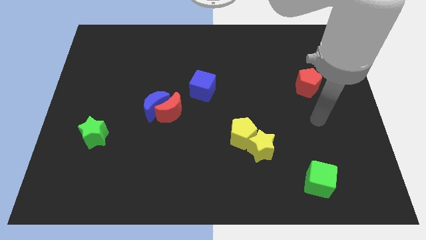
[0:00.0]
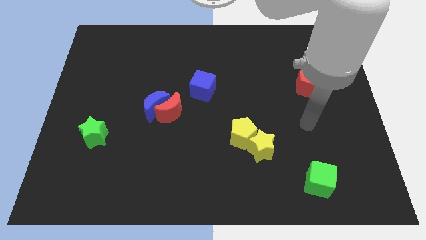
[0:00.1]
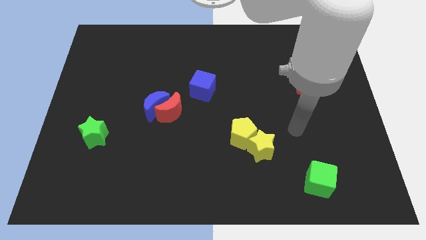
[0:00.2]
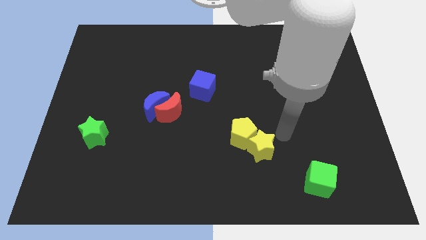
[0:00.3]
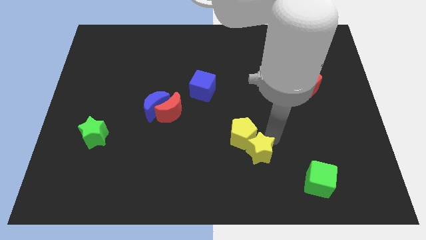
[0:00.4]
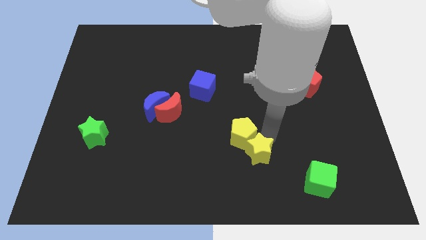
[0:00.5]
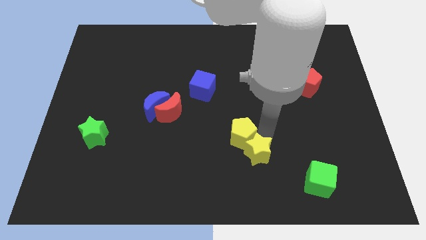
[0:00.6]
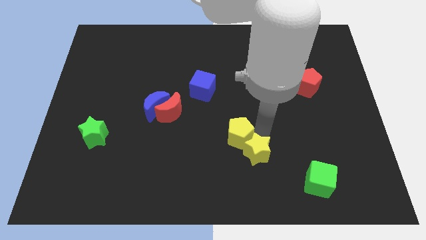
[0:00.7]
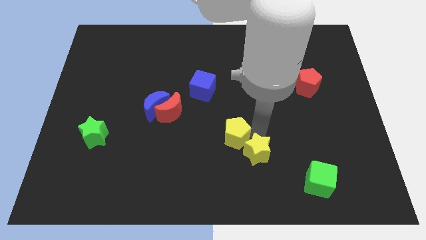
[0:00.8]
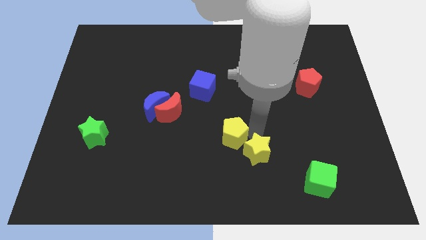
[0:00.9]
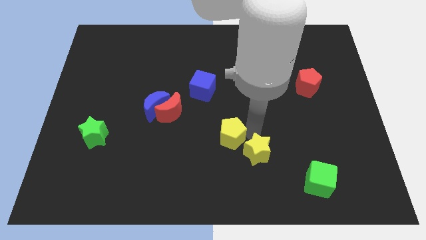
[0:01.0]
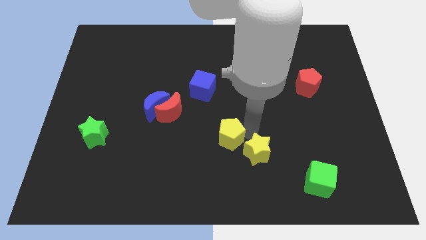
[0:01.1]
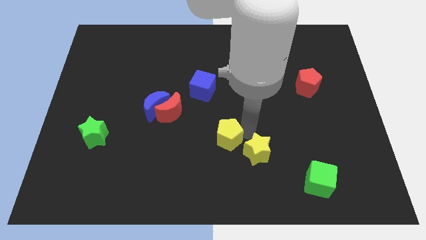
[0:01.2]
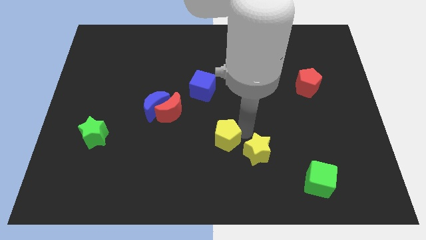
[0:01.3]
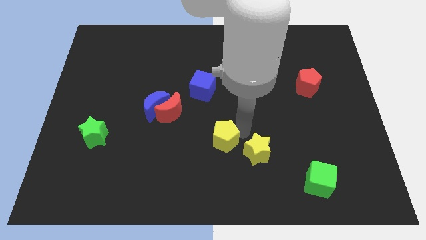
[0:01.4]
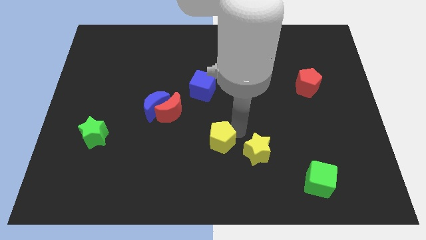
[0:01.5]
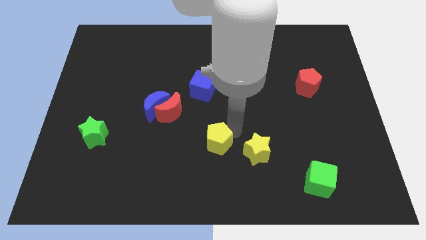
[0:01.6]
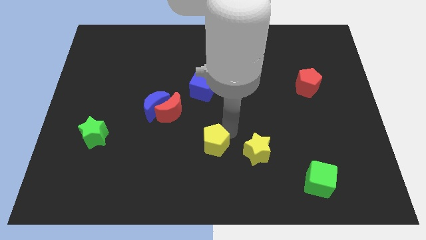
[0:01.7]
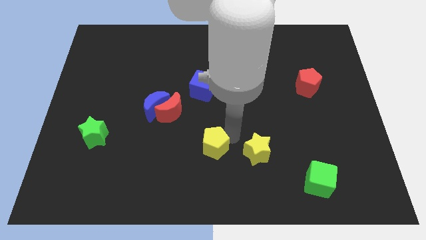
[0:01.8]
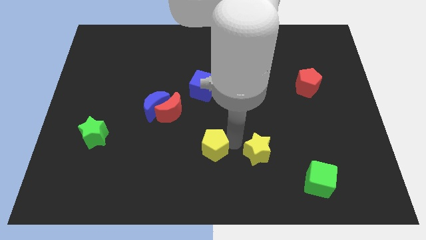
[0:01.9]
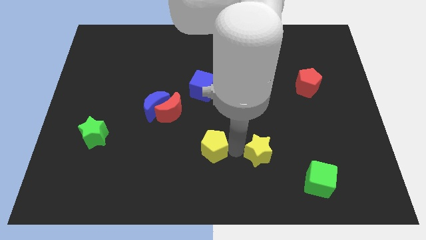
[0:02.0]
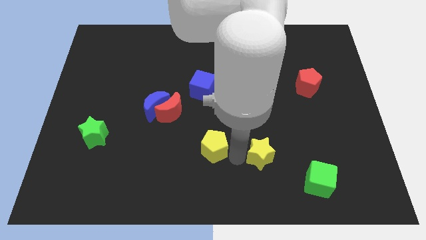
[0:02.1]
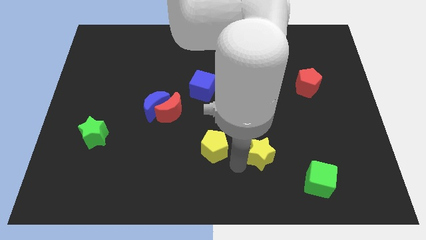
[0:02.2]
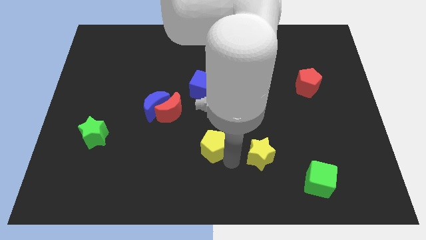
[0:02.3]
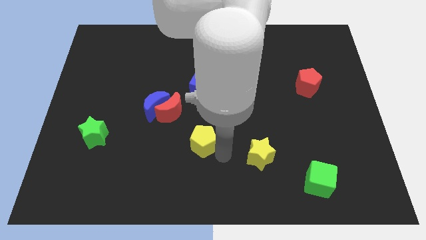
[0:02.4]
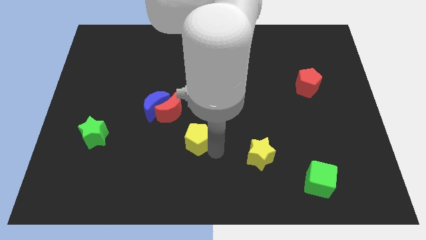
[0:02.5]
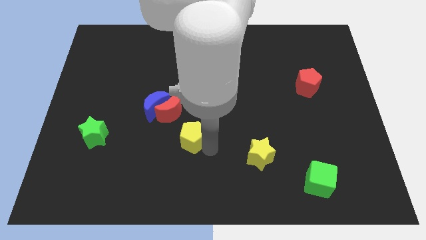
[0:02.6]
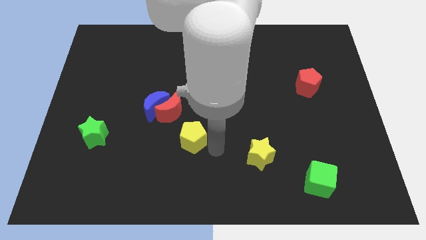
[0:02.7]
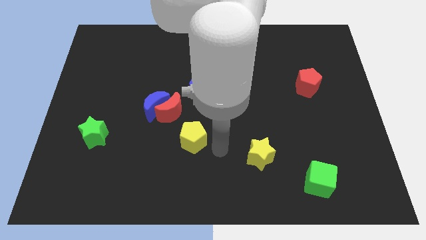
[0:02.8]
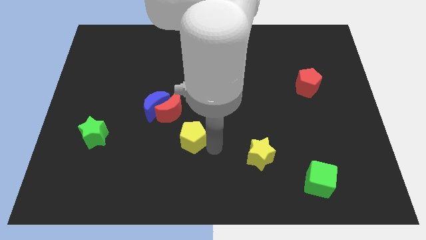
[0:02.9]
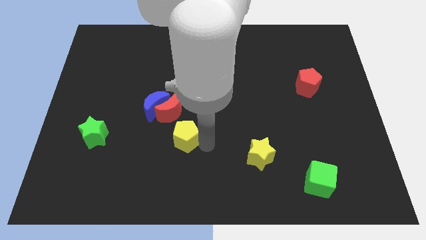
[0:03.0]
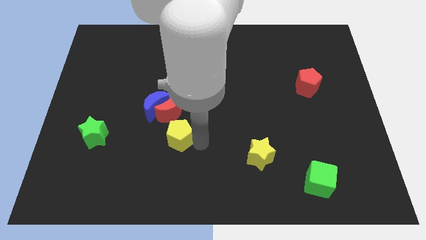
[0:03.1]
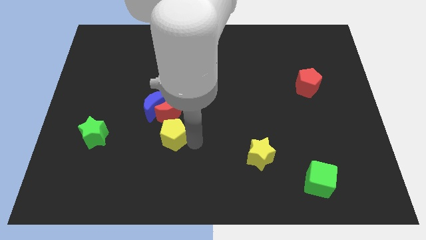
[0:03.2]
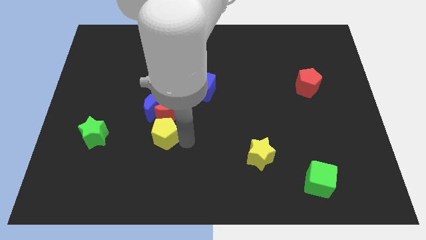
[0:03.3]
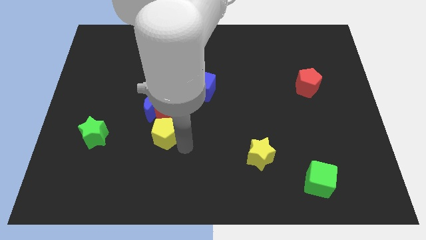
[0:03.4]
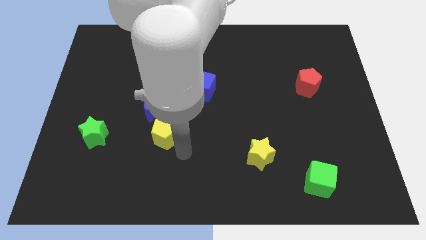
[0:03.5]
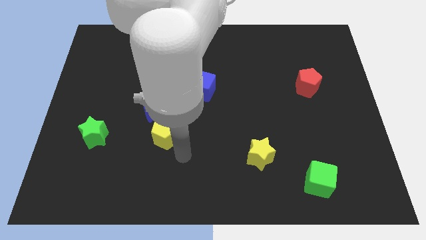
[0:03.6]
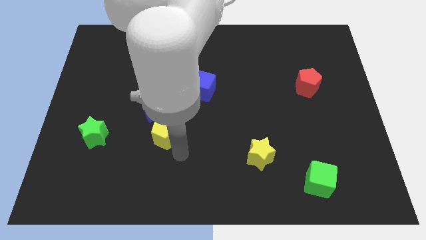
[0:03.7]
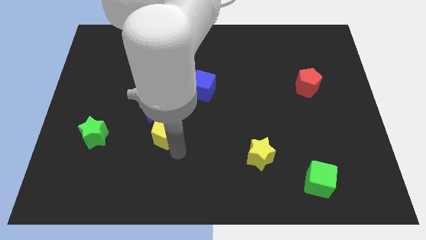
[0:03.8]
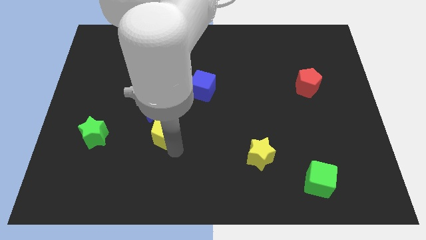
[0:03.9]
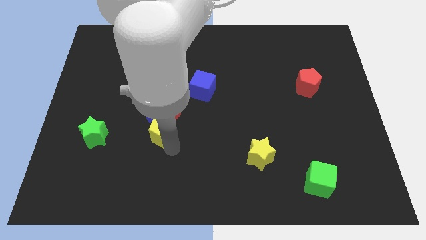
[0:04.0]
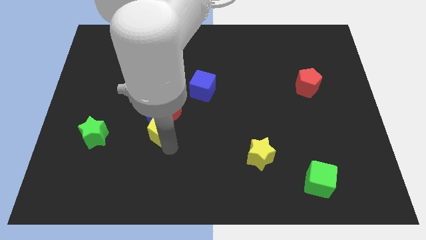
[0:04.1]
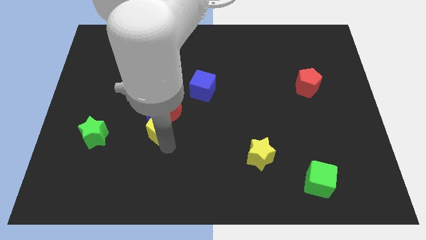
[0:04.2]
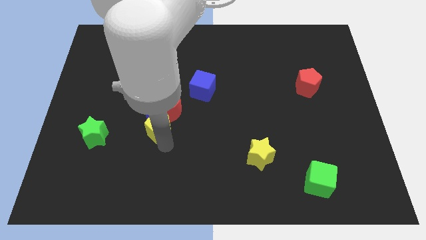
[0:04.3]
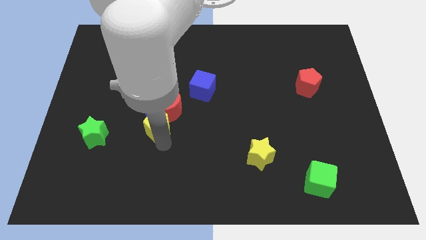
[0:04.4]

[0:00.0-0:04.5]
move the yellow pentagon to the blue moon

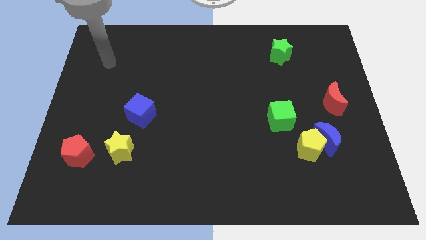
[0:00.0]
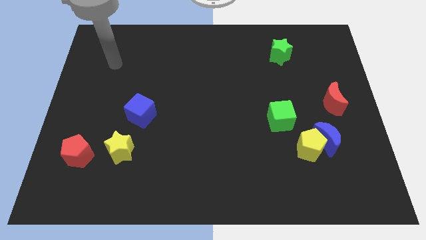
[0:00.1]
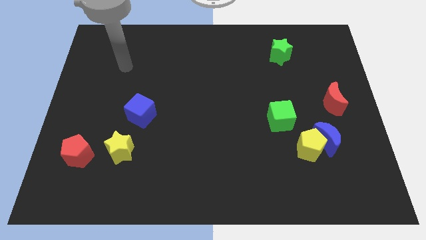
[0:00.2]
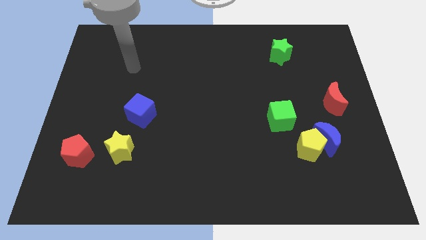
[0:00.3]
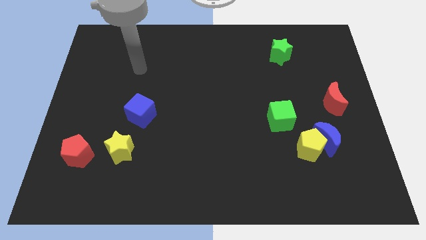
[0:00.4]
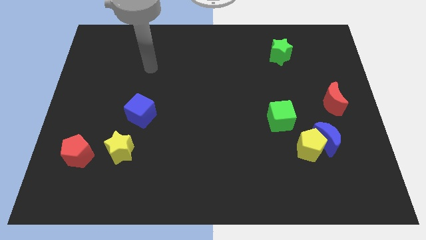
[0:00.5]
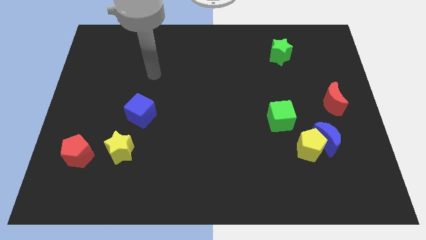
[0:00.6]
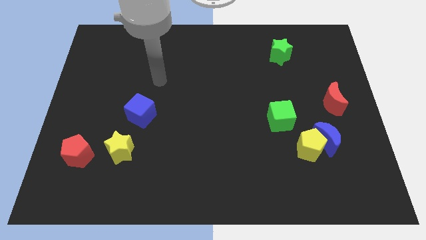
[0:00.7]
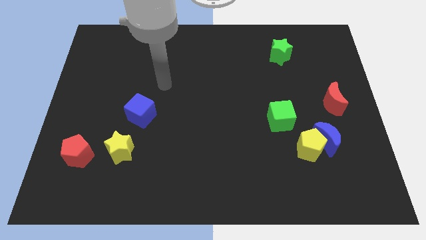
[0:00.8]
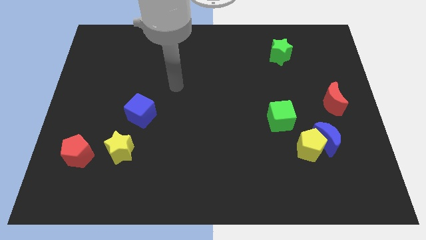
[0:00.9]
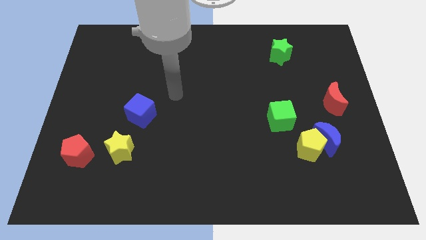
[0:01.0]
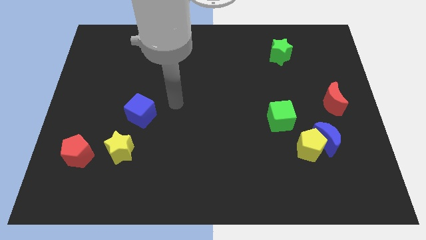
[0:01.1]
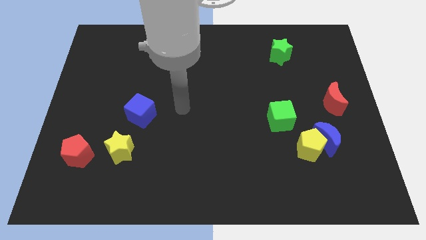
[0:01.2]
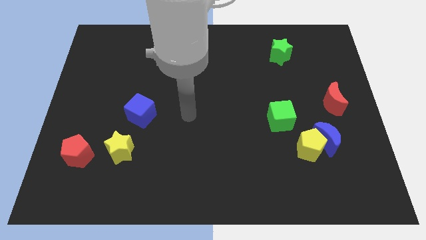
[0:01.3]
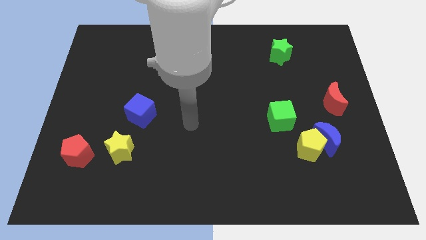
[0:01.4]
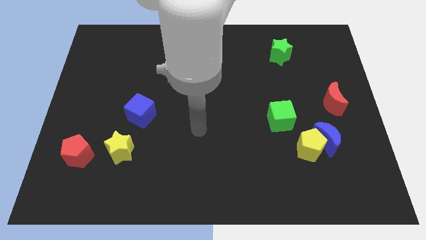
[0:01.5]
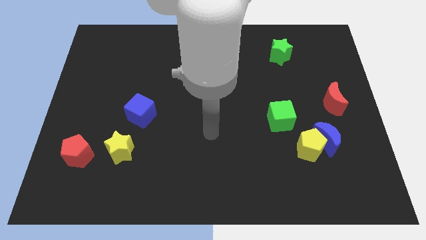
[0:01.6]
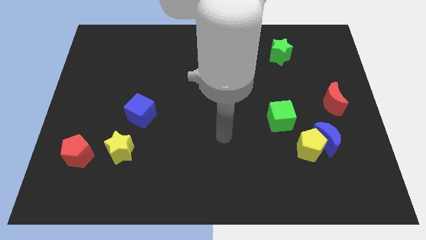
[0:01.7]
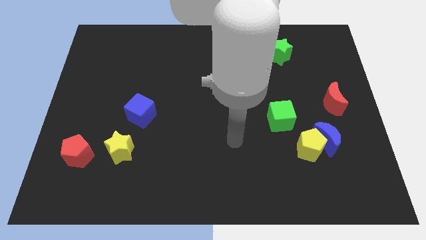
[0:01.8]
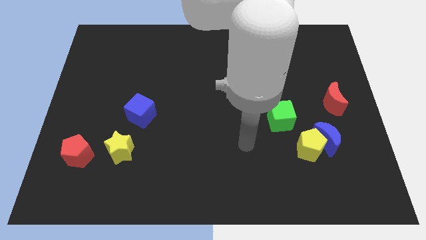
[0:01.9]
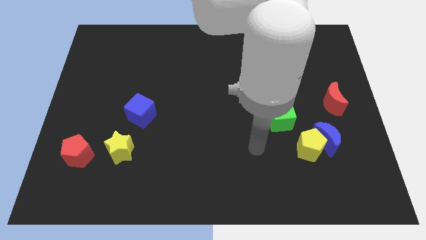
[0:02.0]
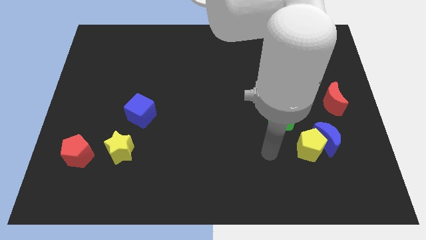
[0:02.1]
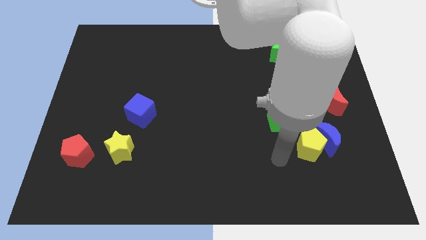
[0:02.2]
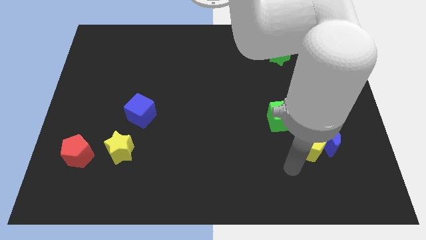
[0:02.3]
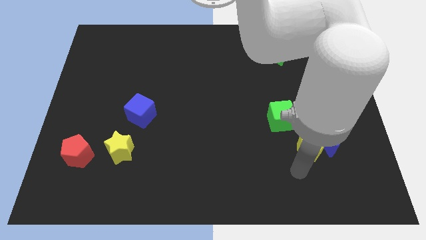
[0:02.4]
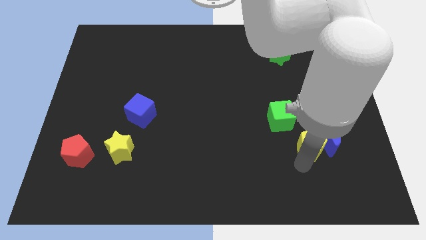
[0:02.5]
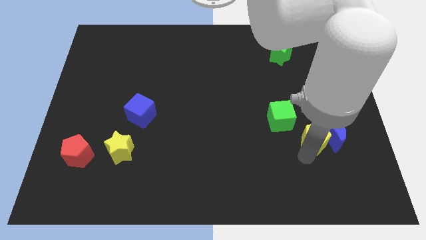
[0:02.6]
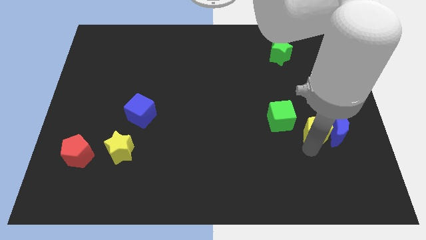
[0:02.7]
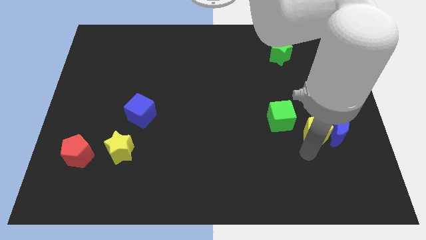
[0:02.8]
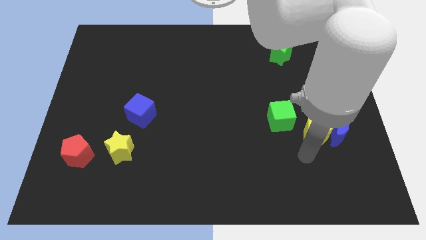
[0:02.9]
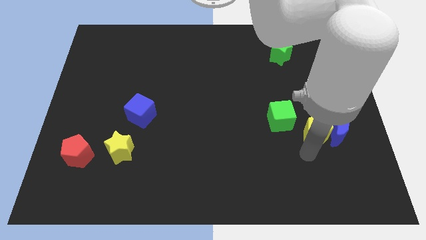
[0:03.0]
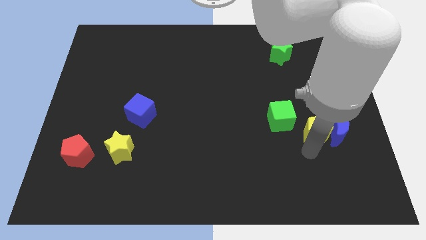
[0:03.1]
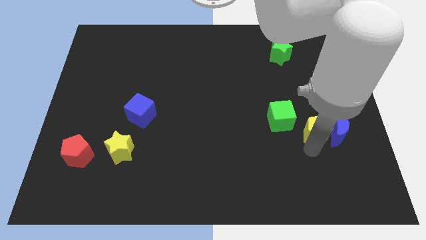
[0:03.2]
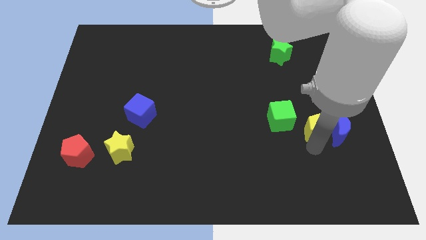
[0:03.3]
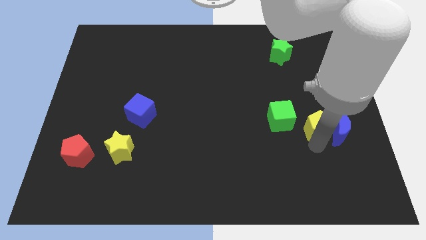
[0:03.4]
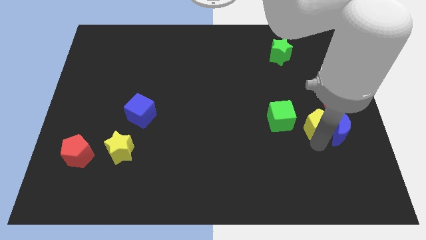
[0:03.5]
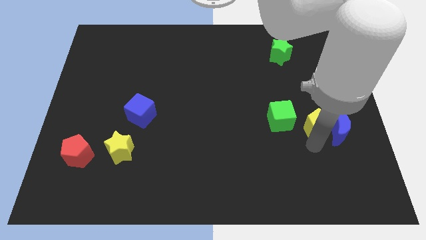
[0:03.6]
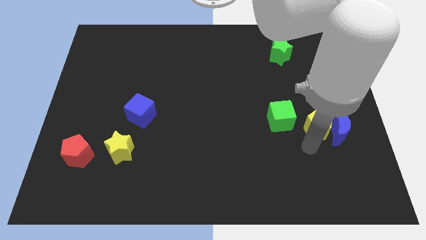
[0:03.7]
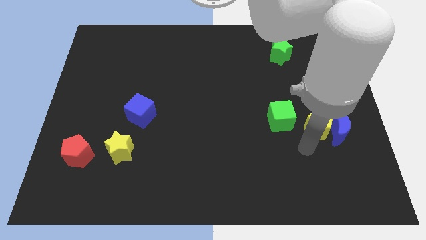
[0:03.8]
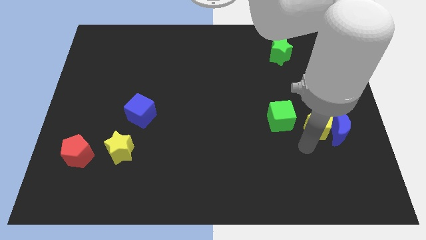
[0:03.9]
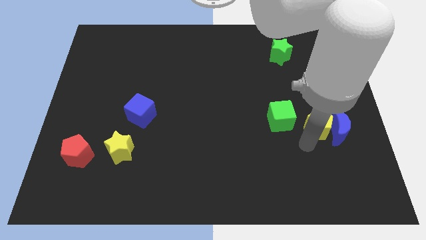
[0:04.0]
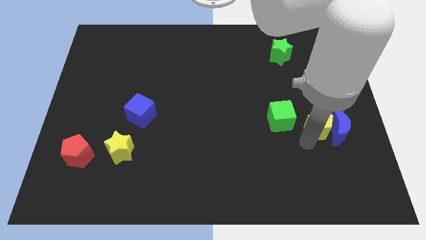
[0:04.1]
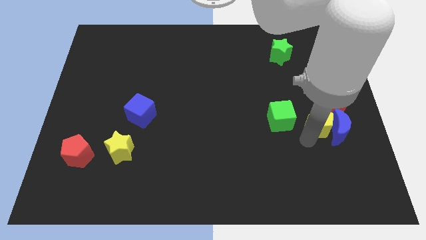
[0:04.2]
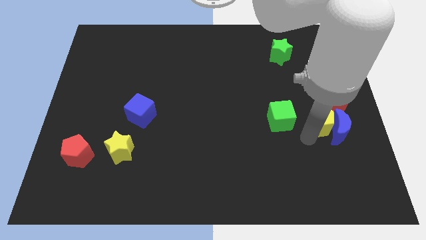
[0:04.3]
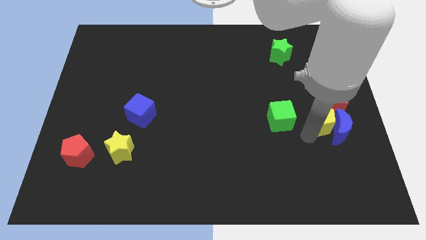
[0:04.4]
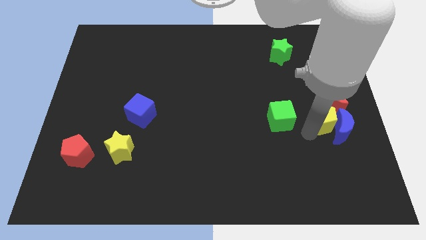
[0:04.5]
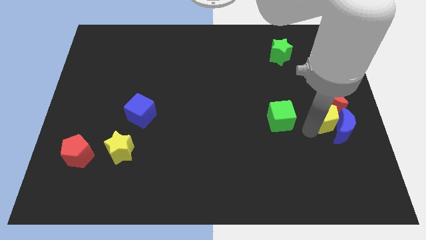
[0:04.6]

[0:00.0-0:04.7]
move the yellow pentagon towards the red moon
